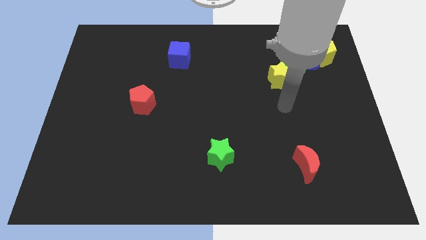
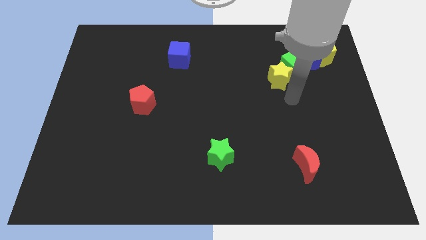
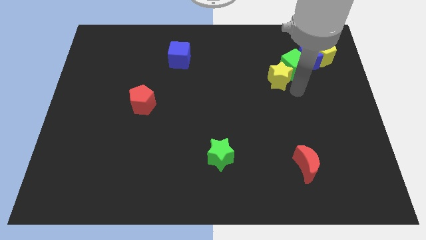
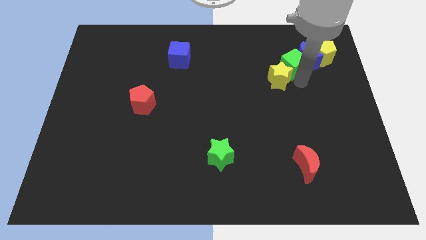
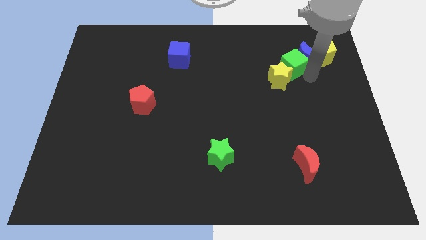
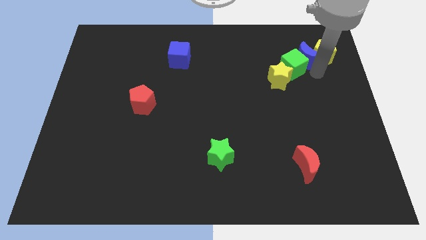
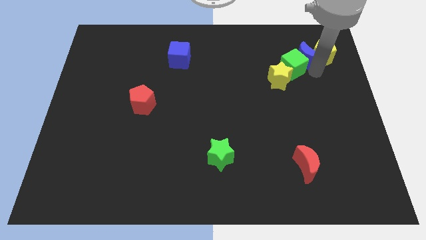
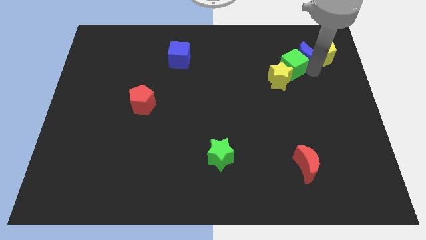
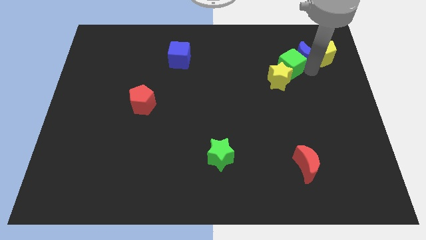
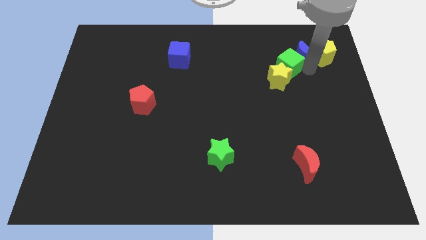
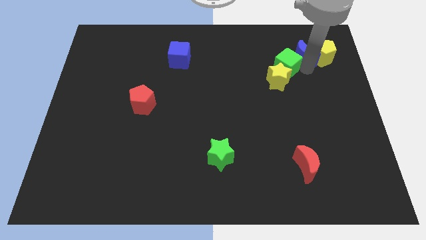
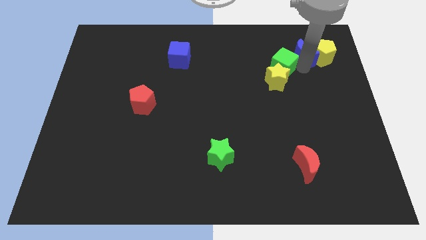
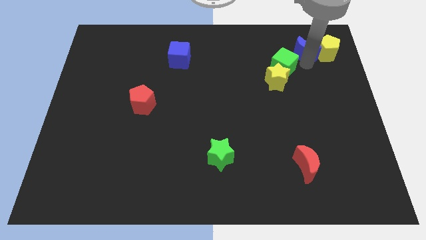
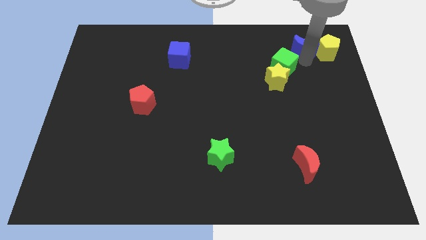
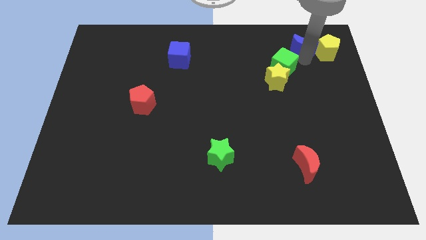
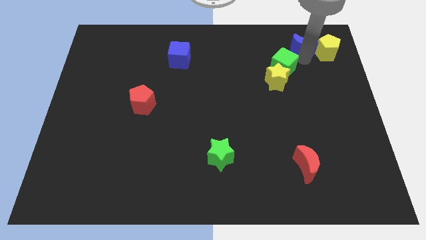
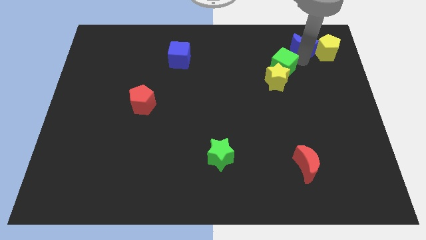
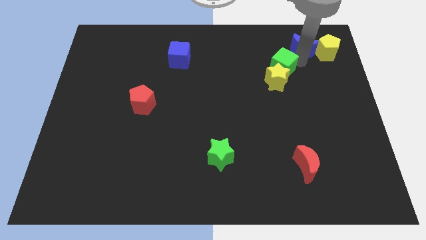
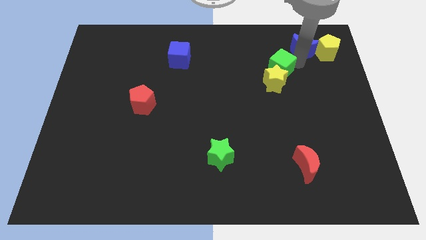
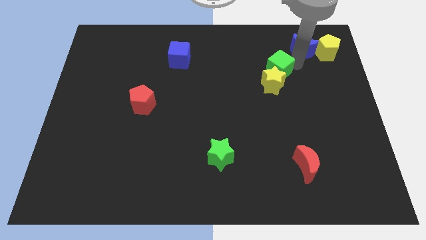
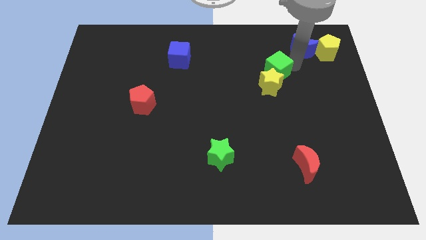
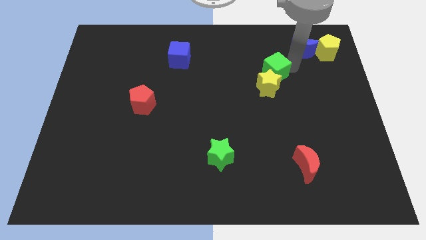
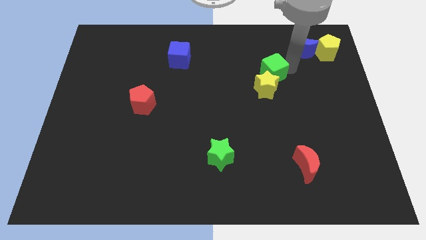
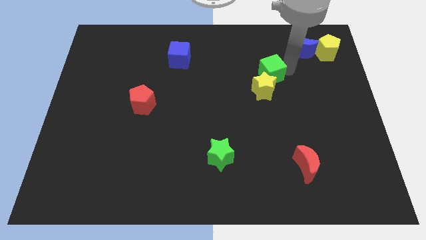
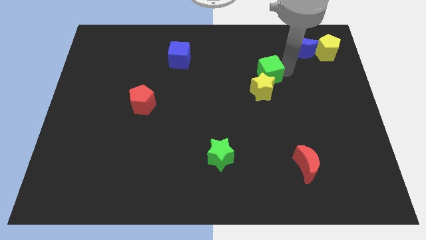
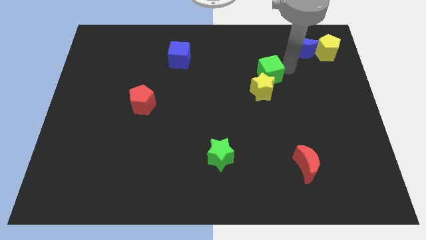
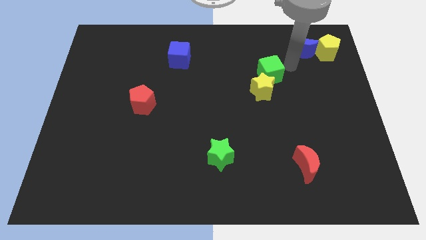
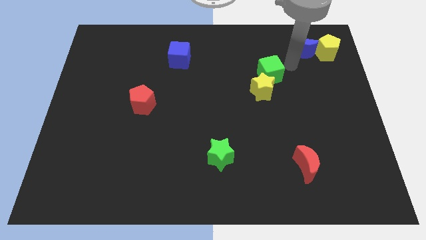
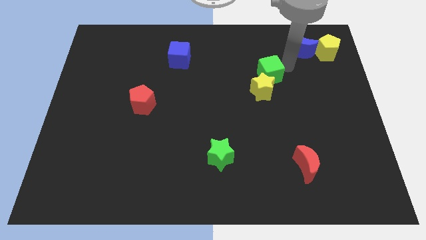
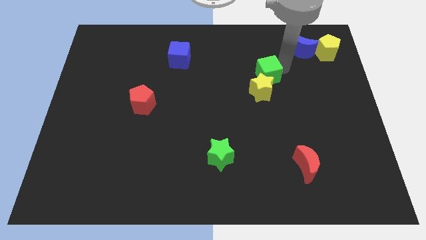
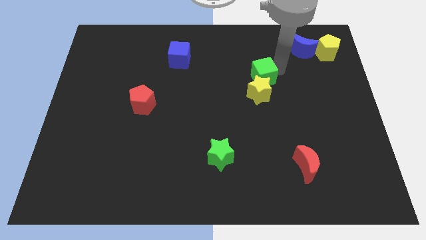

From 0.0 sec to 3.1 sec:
move the green cube away from the blue moon, yellow star, and yellow pentagon

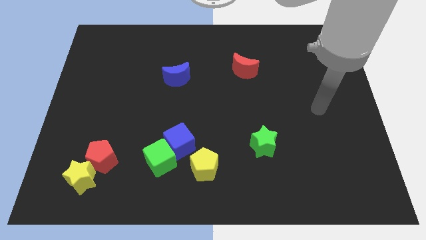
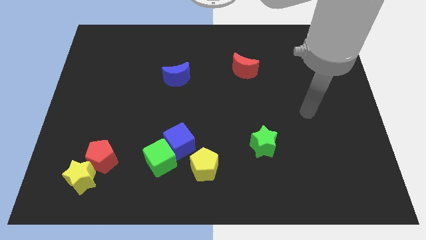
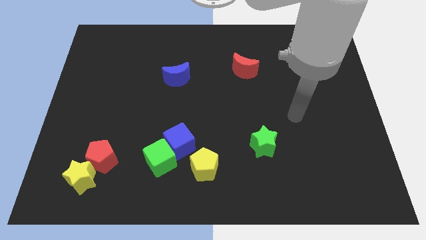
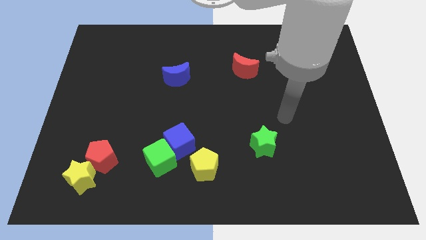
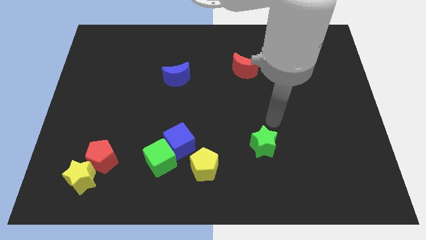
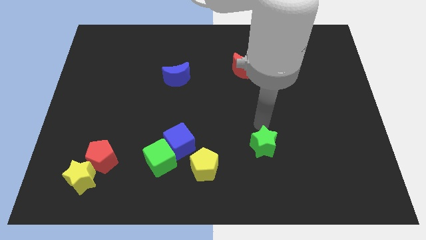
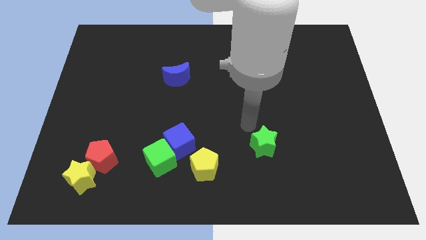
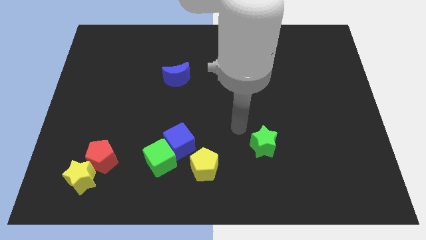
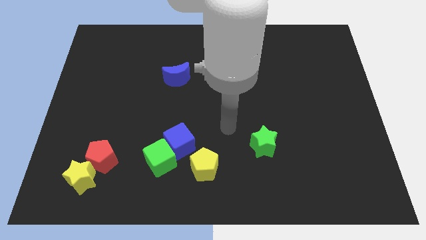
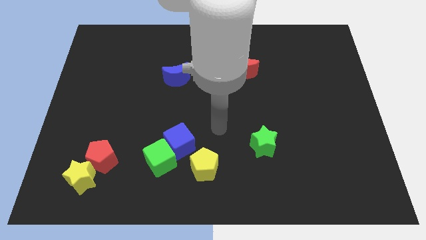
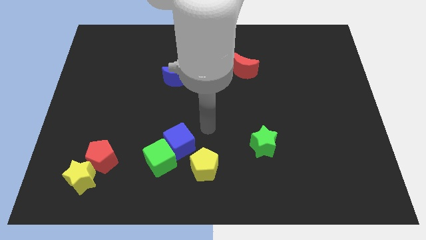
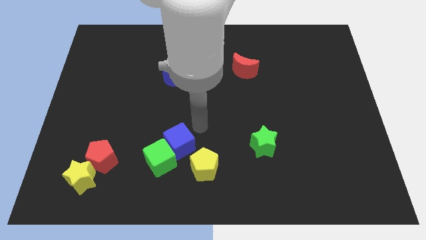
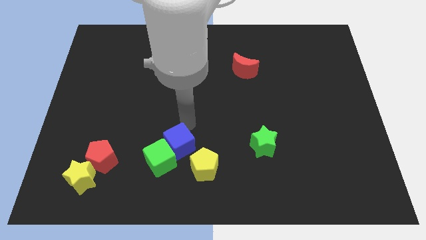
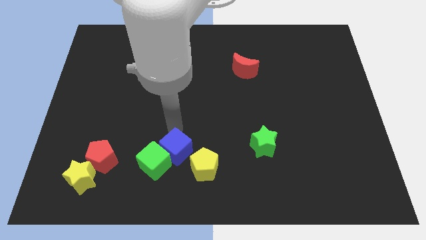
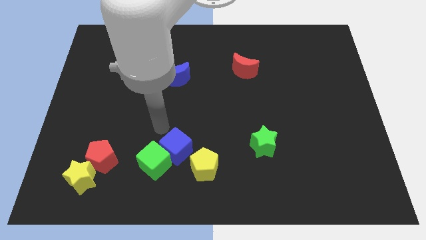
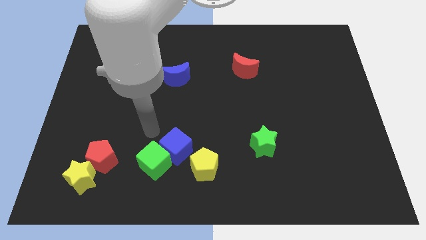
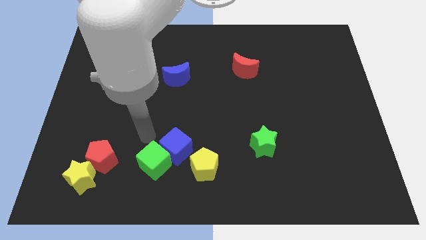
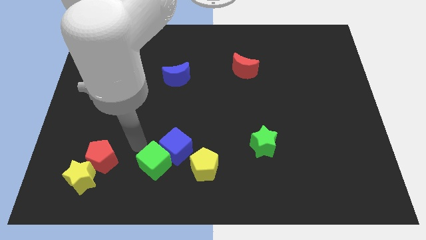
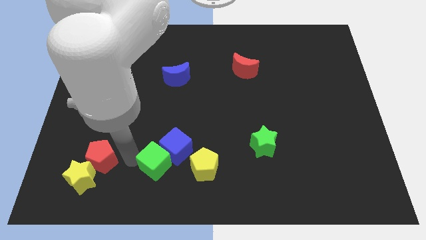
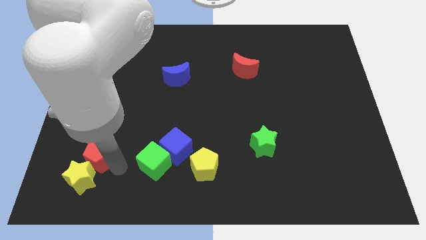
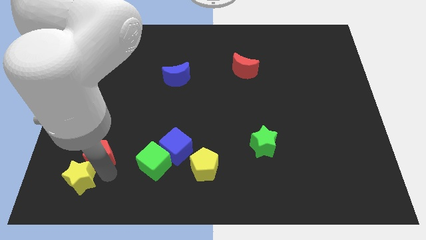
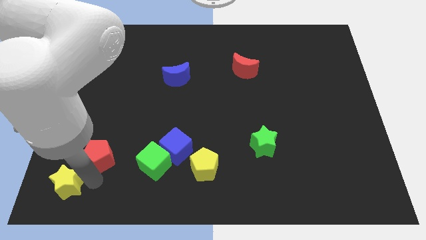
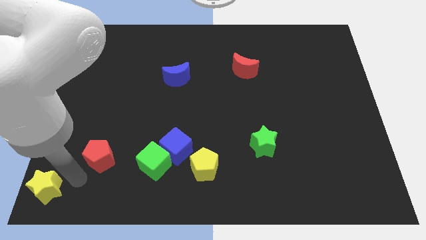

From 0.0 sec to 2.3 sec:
move the red pentagon away from the yellow star

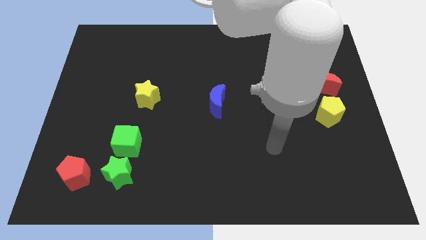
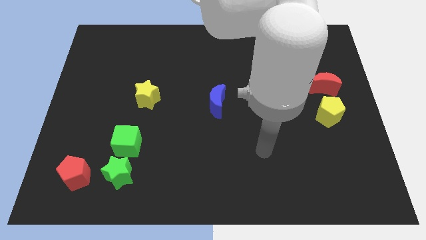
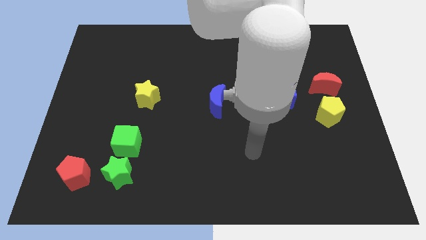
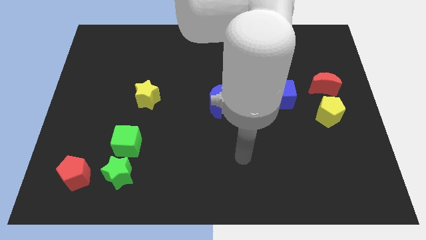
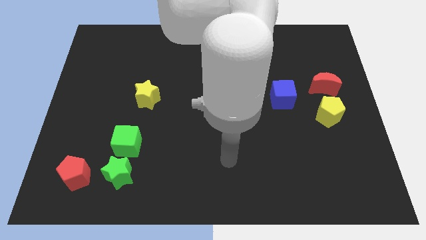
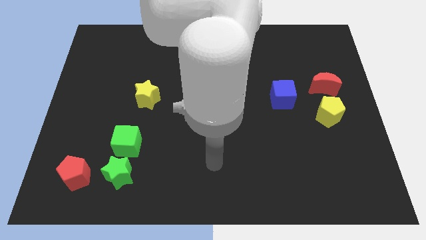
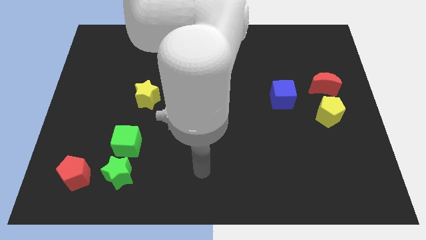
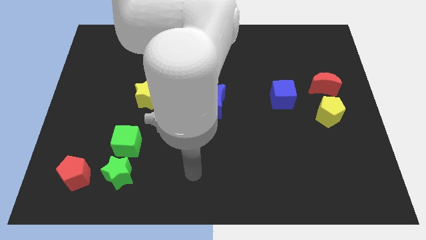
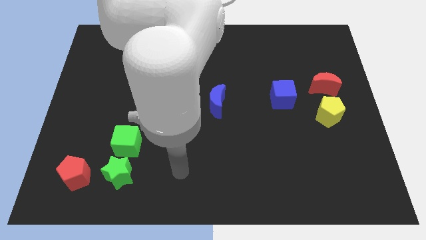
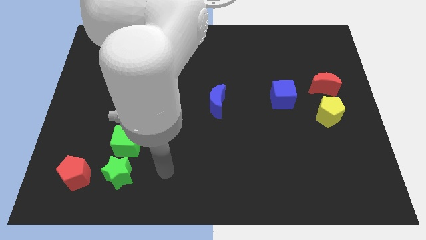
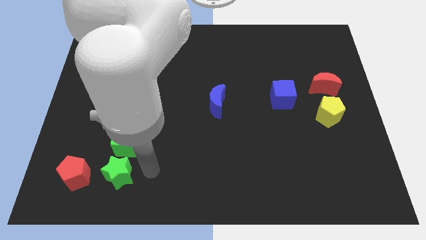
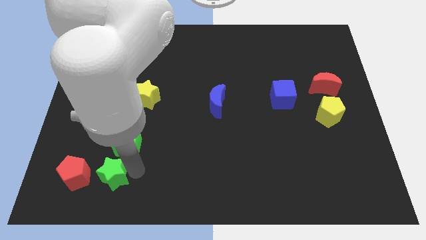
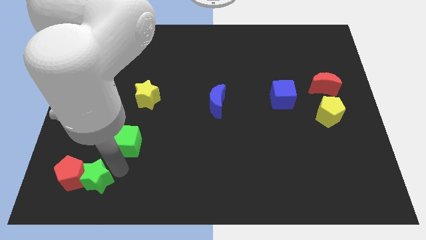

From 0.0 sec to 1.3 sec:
separate the green cube from the green star

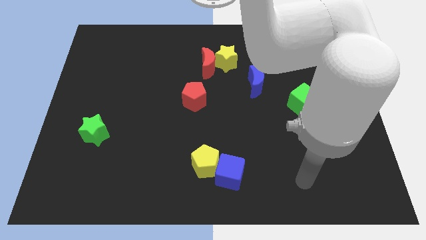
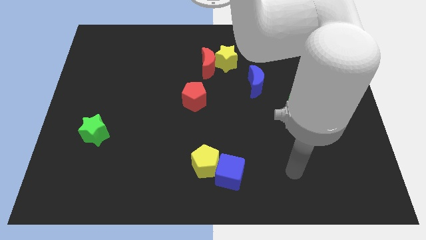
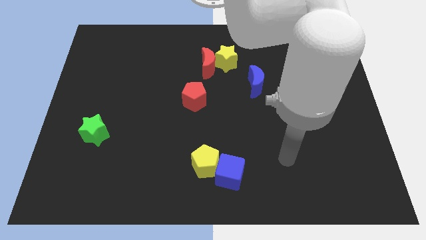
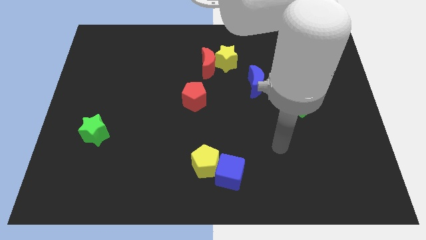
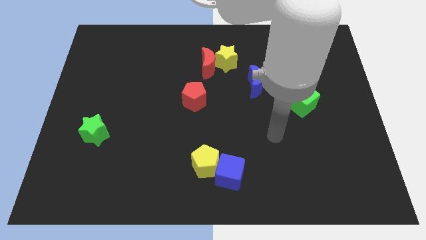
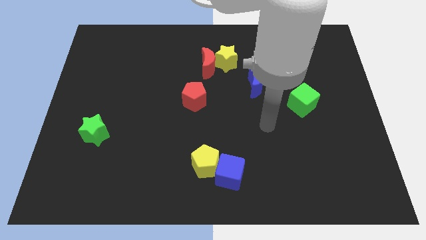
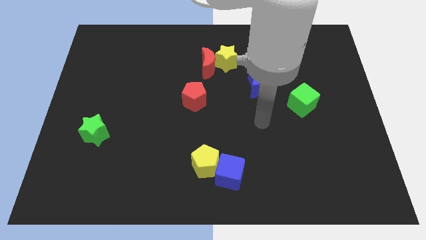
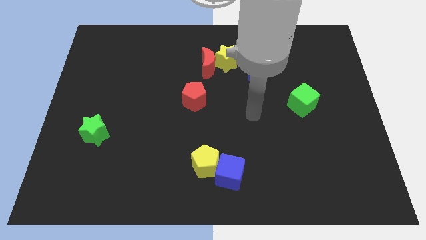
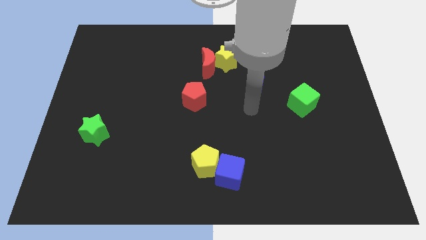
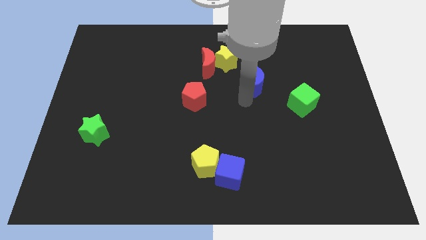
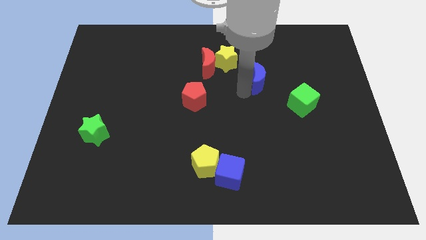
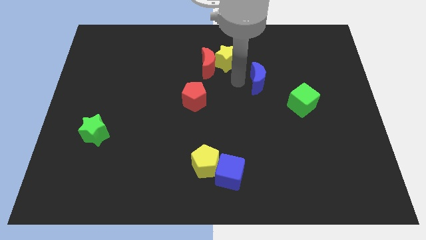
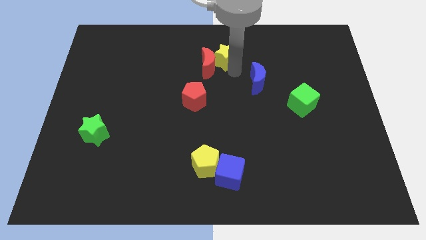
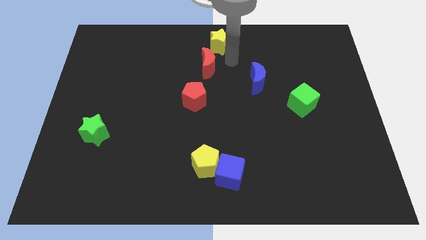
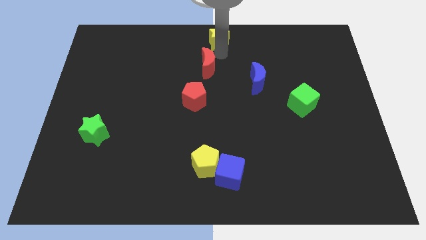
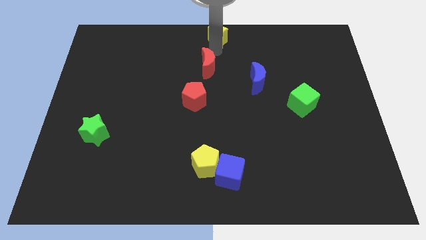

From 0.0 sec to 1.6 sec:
pull the red moon apart from the yellow star

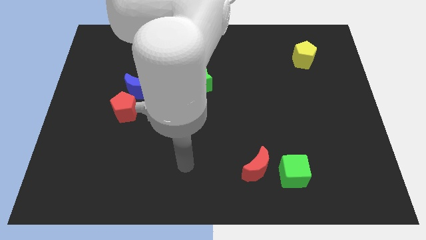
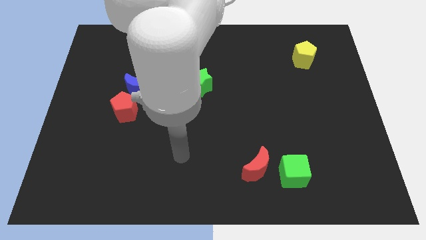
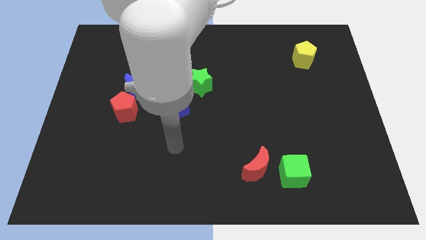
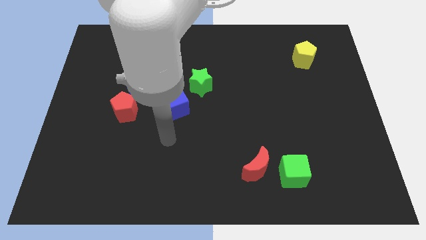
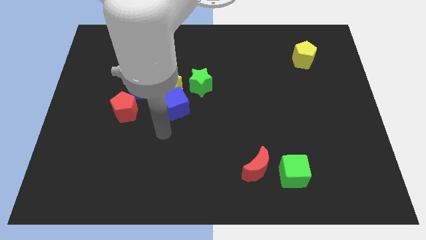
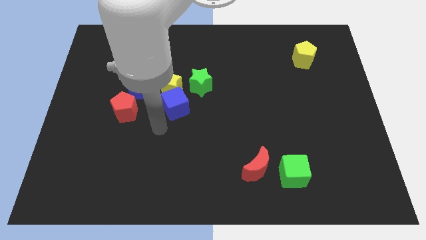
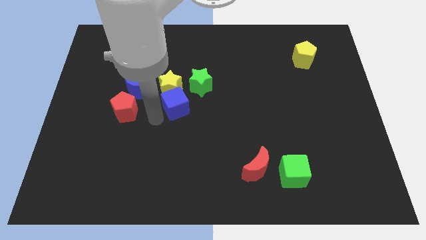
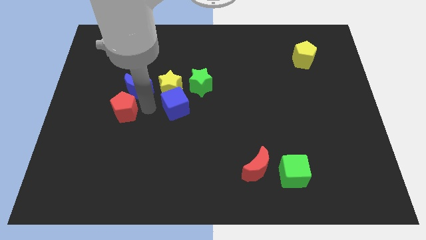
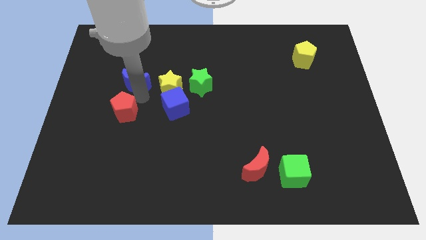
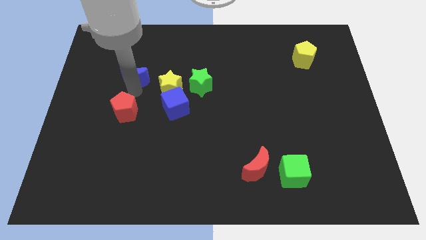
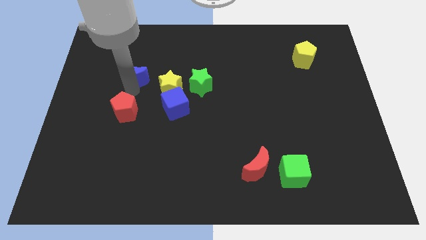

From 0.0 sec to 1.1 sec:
move the red pentagon away from the blue moon
